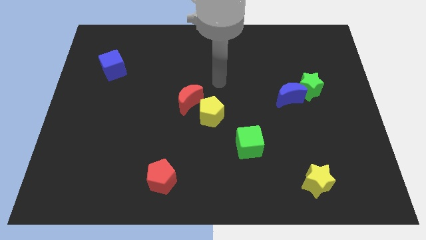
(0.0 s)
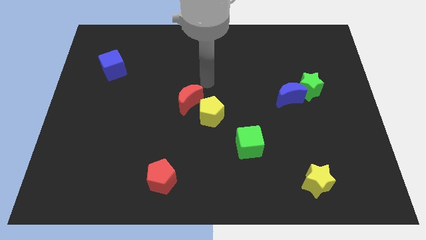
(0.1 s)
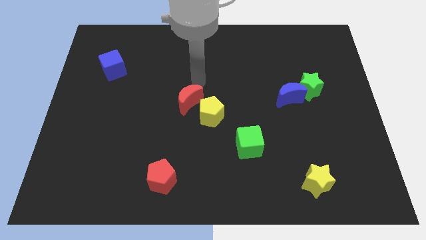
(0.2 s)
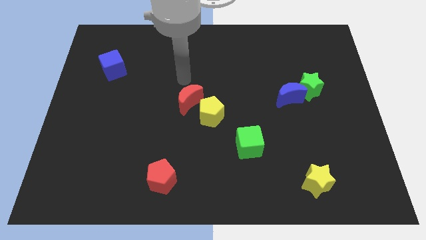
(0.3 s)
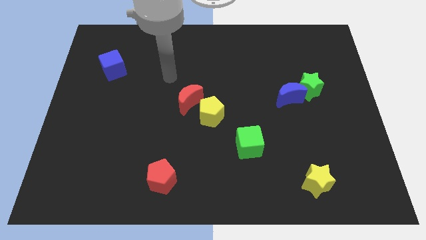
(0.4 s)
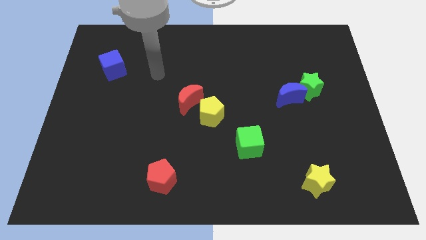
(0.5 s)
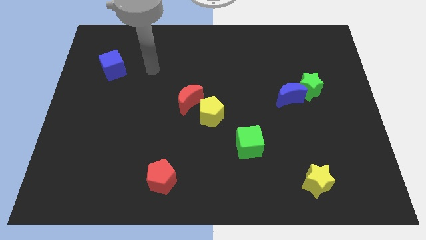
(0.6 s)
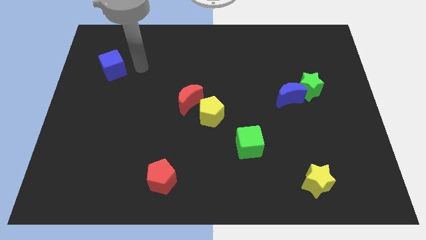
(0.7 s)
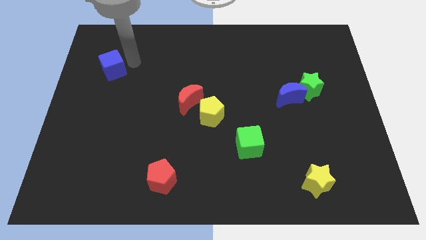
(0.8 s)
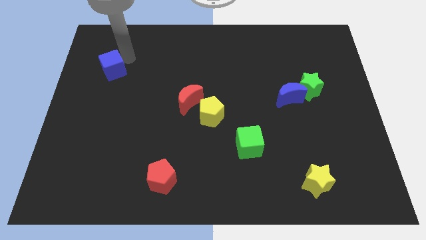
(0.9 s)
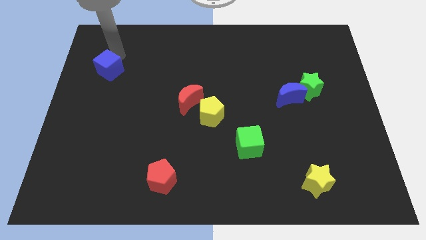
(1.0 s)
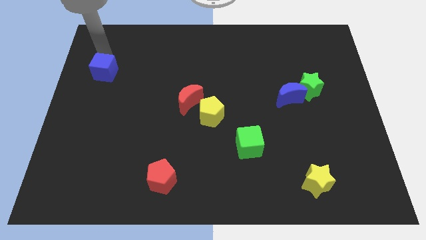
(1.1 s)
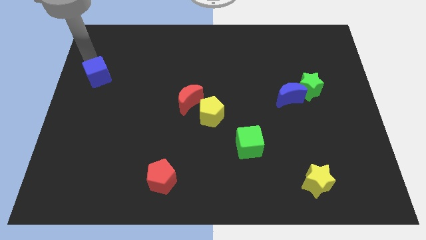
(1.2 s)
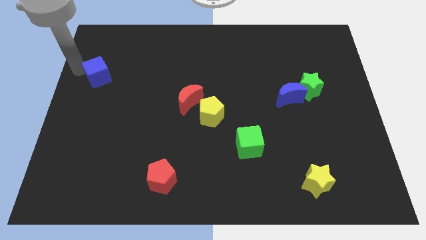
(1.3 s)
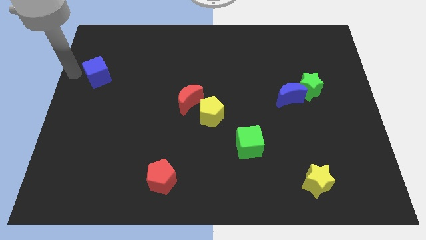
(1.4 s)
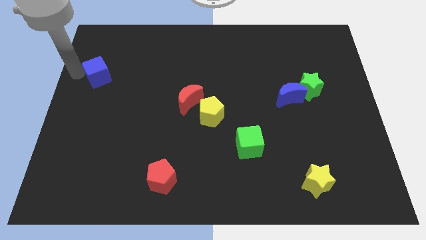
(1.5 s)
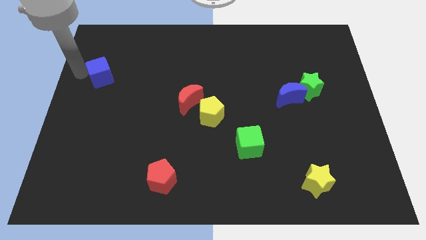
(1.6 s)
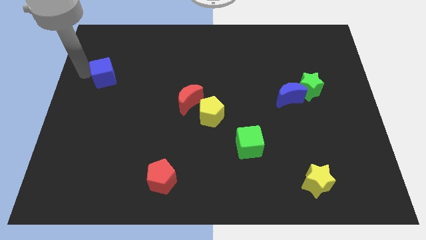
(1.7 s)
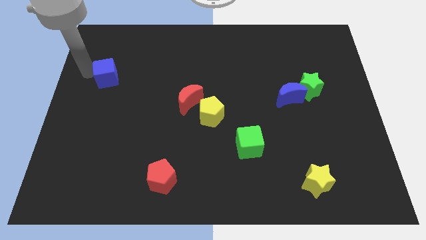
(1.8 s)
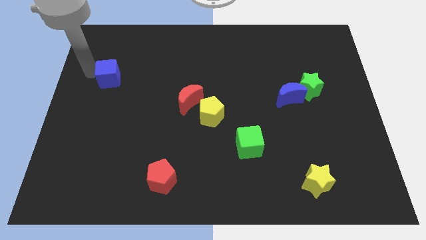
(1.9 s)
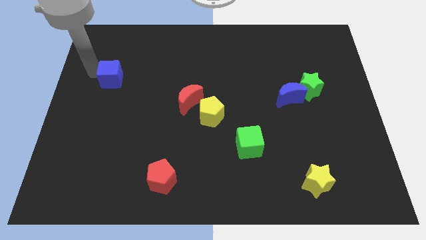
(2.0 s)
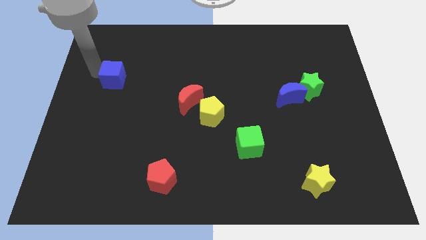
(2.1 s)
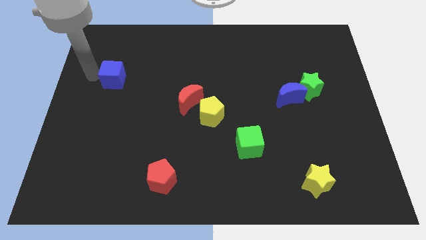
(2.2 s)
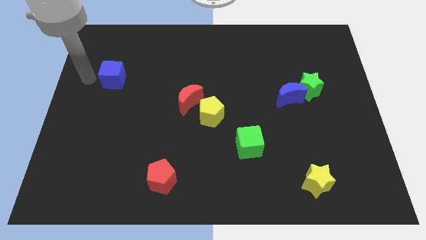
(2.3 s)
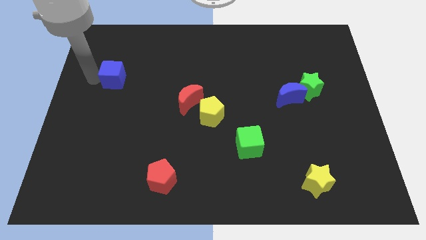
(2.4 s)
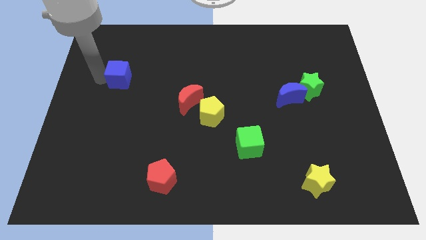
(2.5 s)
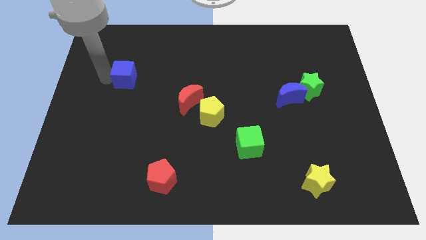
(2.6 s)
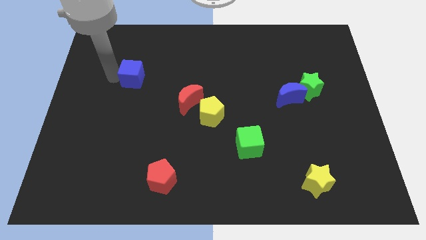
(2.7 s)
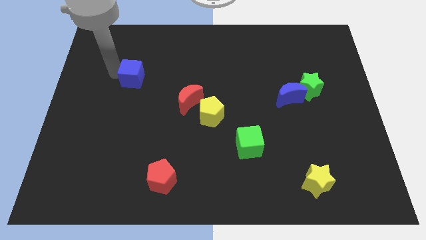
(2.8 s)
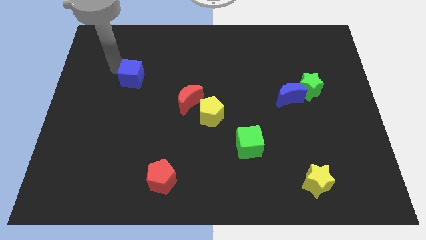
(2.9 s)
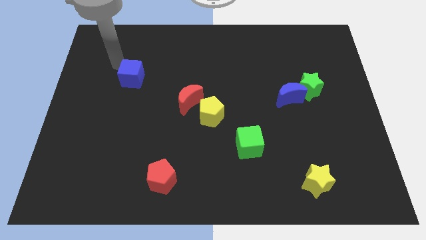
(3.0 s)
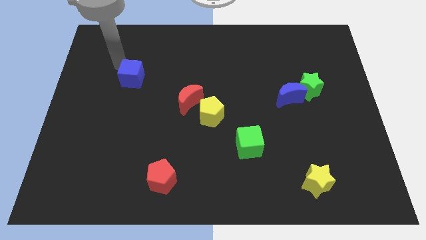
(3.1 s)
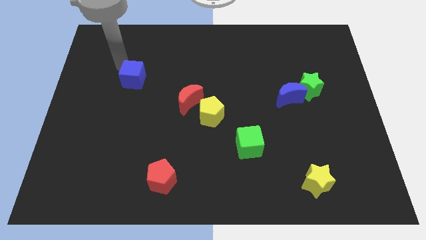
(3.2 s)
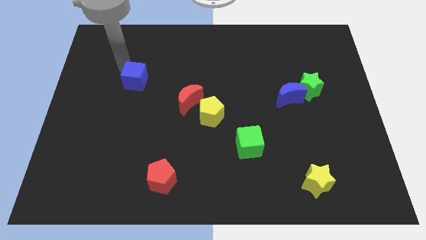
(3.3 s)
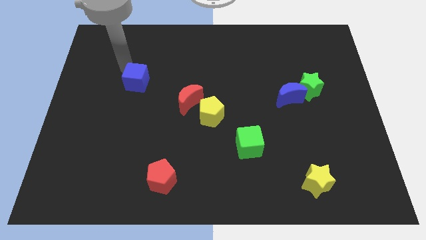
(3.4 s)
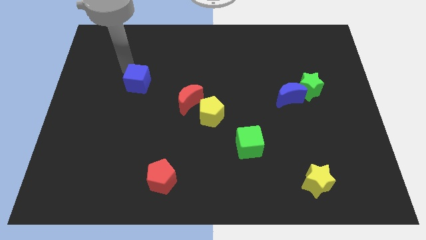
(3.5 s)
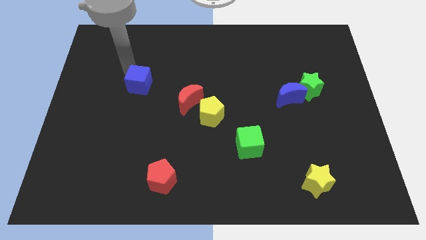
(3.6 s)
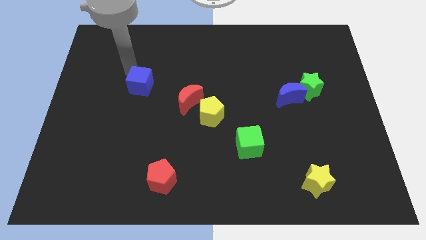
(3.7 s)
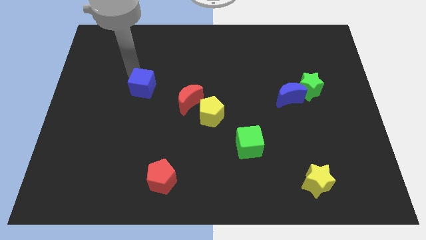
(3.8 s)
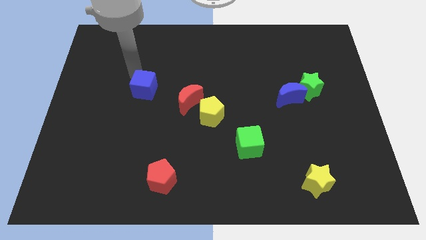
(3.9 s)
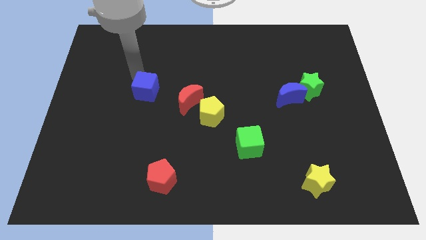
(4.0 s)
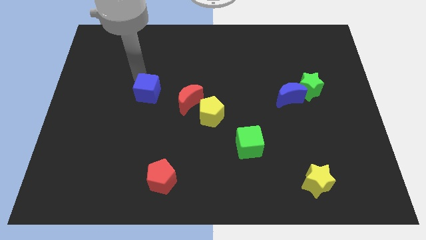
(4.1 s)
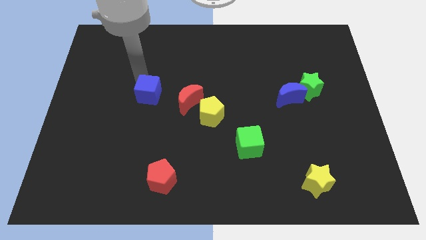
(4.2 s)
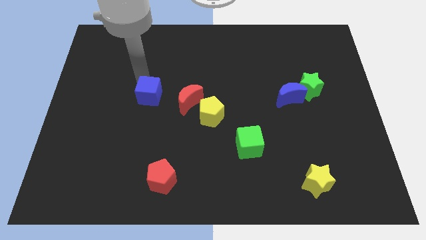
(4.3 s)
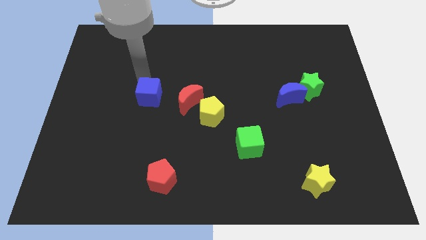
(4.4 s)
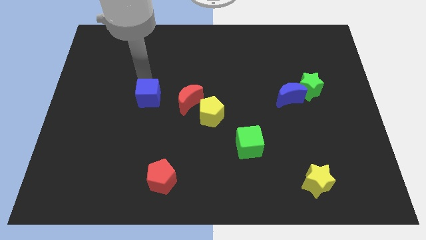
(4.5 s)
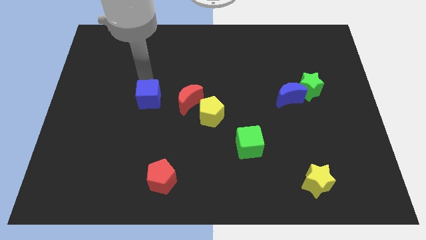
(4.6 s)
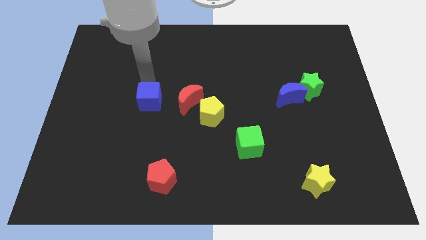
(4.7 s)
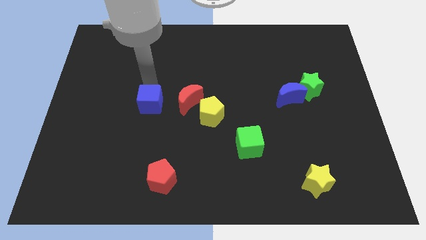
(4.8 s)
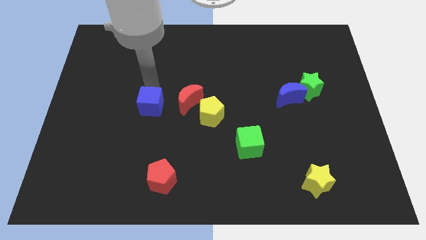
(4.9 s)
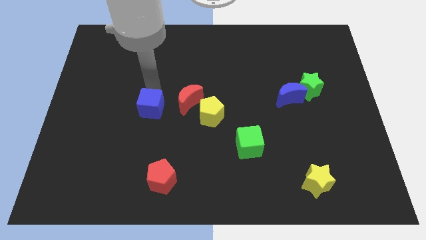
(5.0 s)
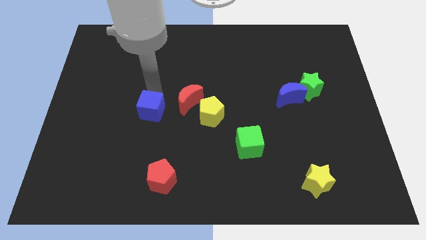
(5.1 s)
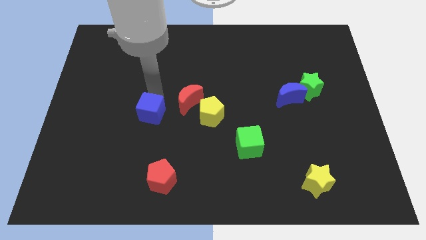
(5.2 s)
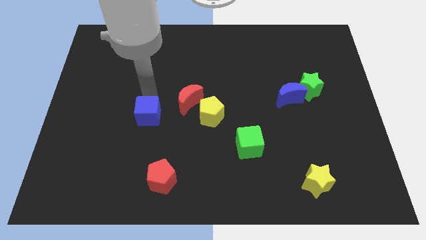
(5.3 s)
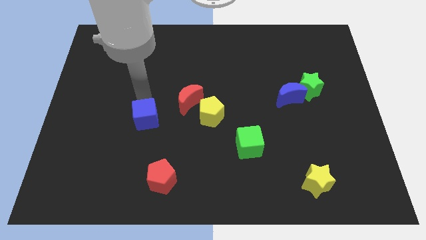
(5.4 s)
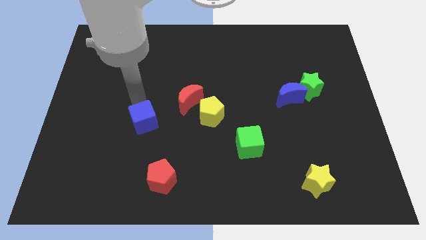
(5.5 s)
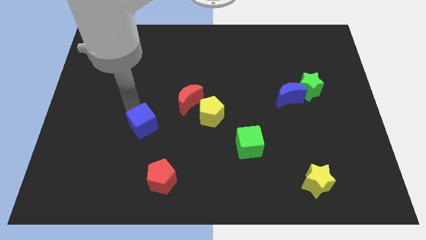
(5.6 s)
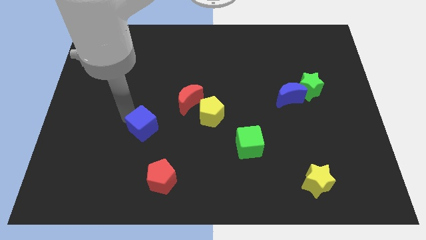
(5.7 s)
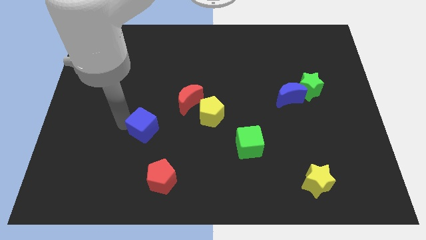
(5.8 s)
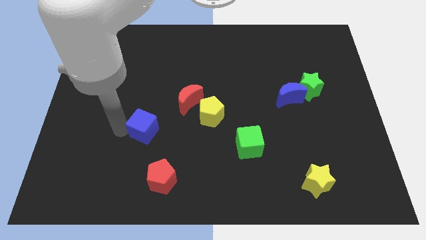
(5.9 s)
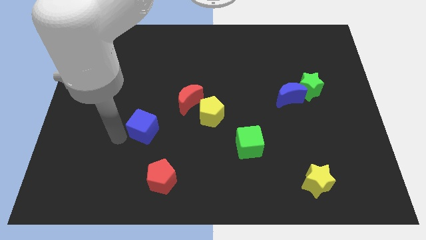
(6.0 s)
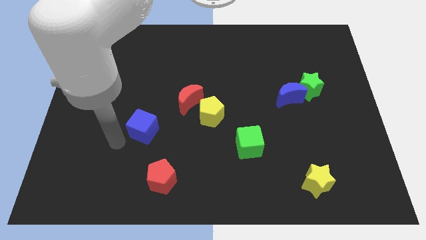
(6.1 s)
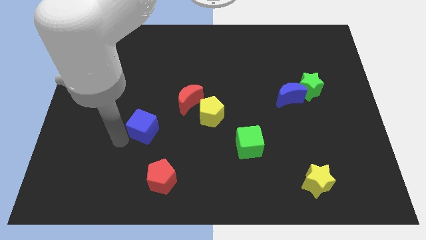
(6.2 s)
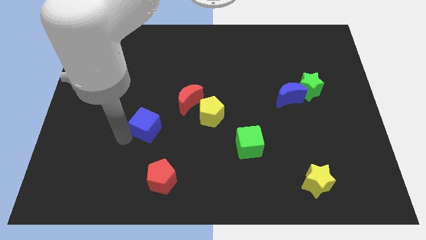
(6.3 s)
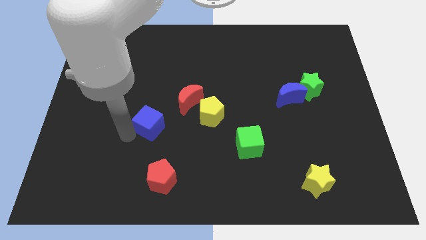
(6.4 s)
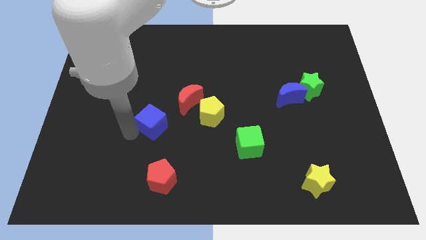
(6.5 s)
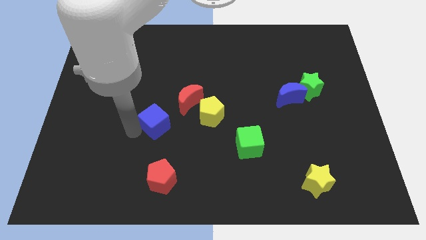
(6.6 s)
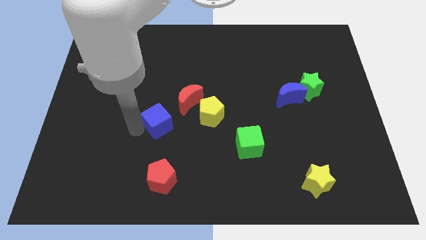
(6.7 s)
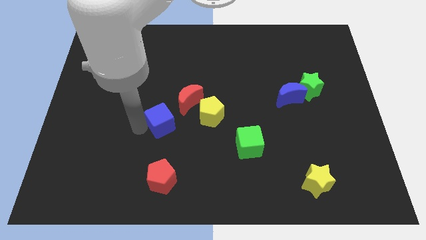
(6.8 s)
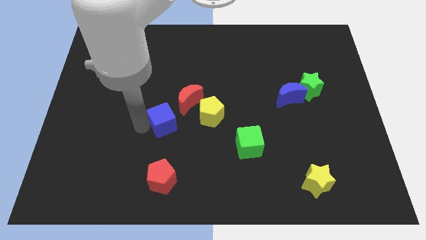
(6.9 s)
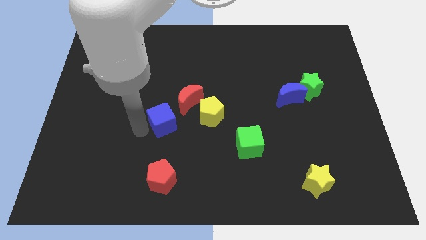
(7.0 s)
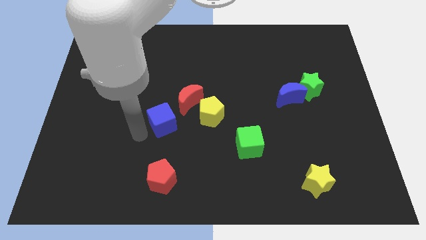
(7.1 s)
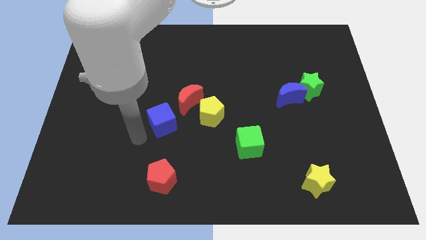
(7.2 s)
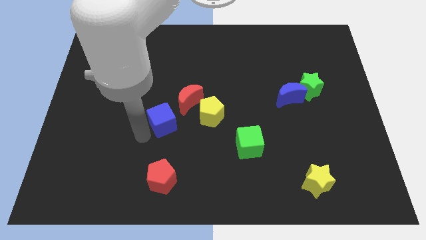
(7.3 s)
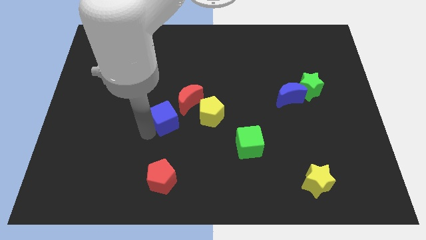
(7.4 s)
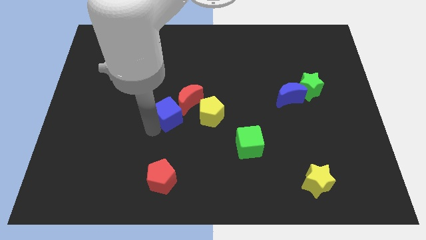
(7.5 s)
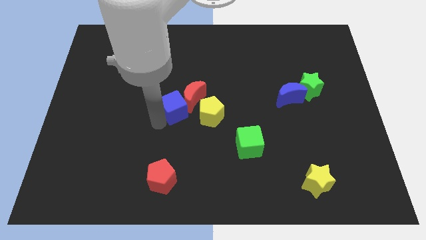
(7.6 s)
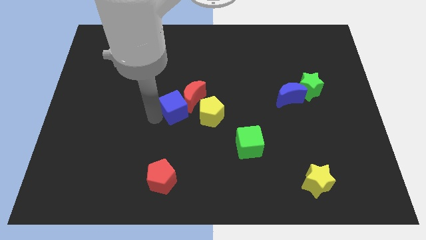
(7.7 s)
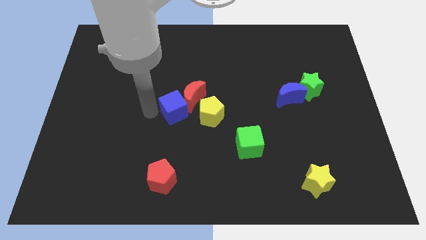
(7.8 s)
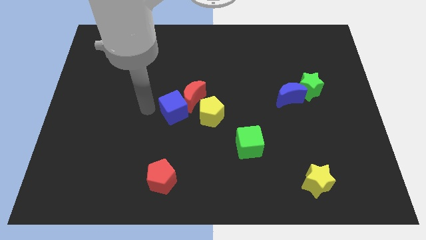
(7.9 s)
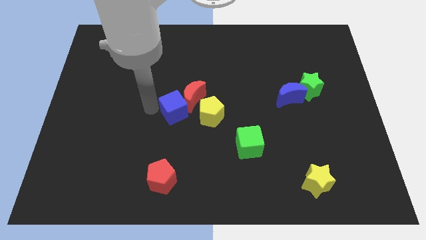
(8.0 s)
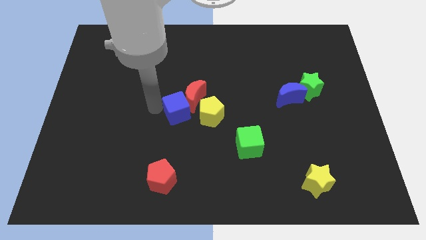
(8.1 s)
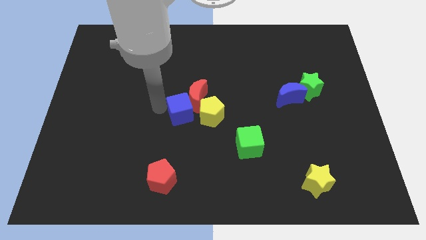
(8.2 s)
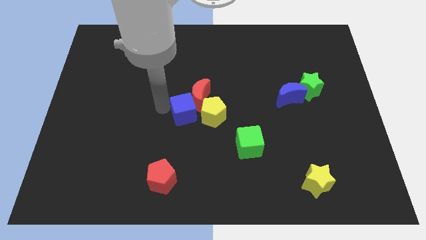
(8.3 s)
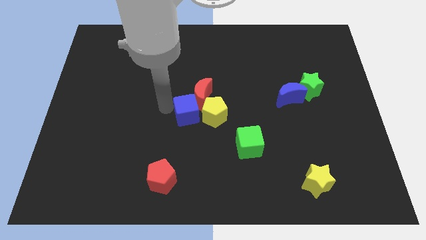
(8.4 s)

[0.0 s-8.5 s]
move the blue cube towards the yellow pentagon

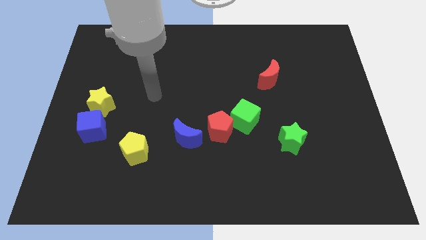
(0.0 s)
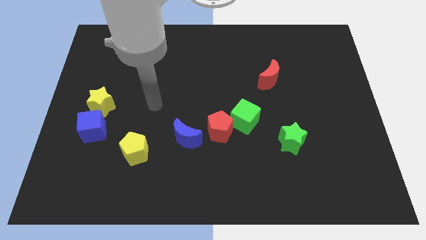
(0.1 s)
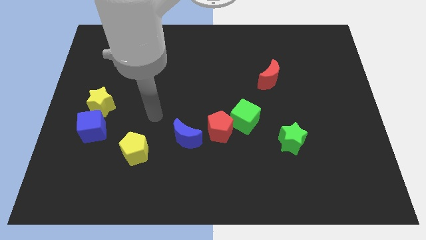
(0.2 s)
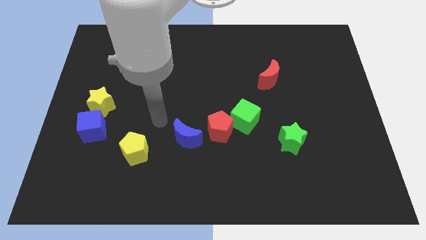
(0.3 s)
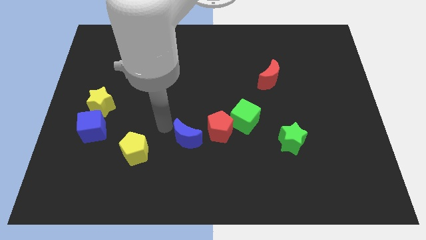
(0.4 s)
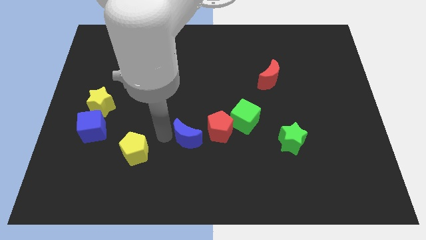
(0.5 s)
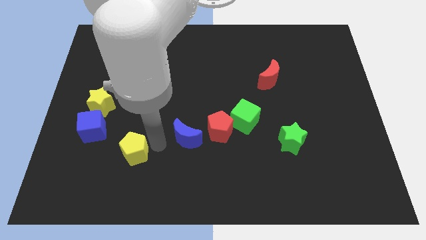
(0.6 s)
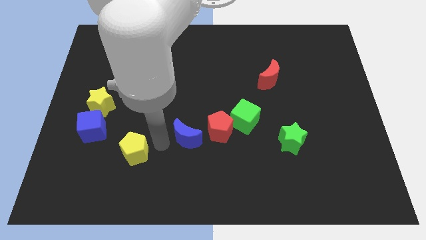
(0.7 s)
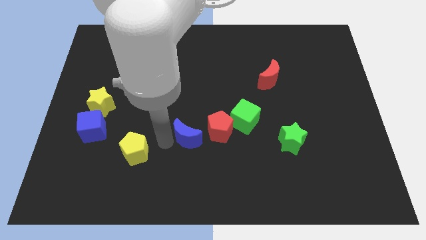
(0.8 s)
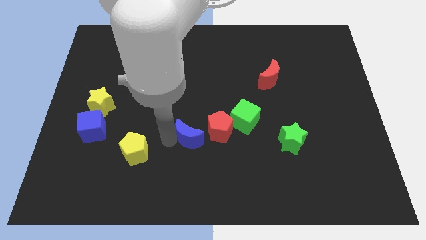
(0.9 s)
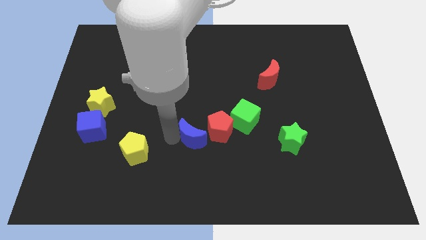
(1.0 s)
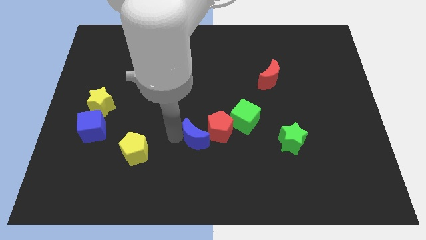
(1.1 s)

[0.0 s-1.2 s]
push the blue moon to the red pentagon
